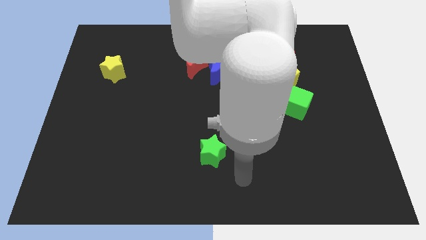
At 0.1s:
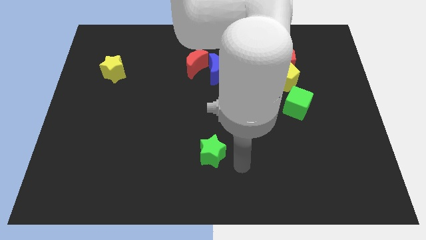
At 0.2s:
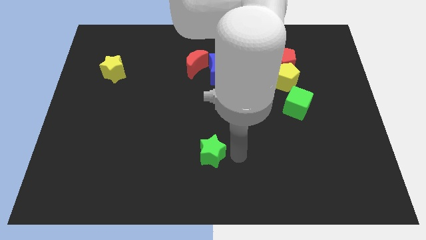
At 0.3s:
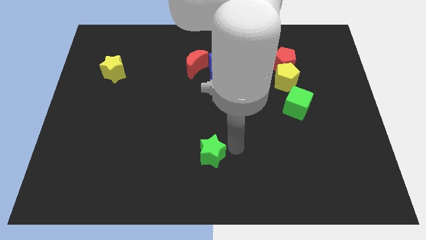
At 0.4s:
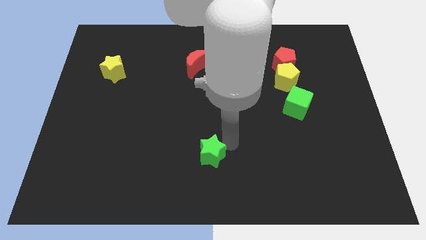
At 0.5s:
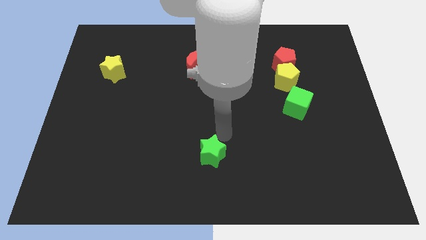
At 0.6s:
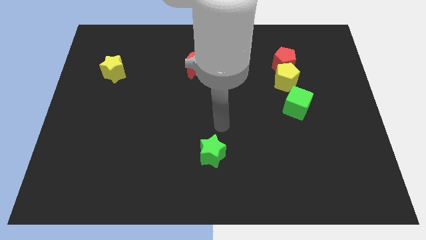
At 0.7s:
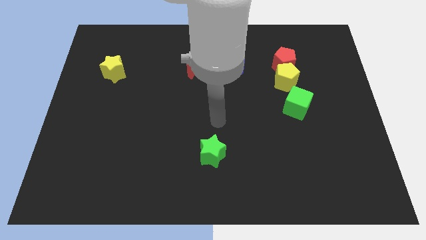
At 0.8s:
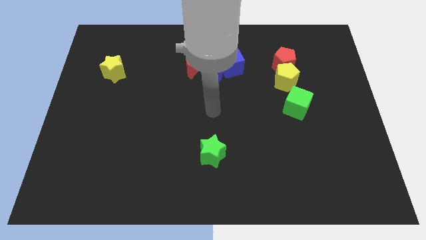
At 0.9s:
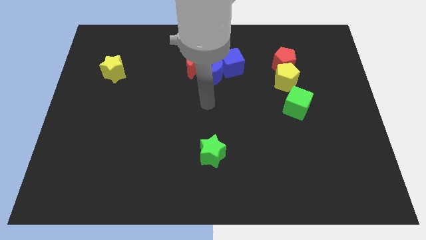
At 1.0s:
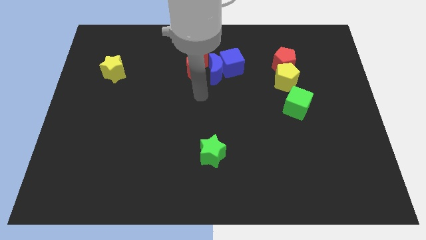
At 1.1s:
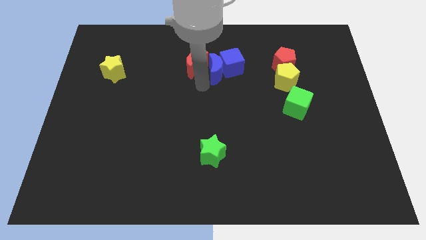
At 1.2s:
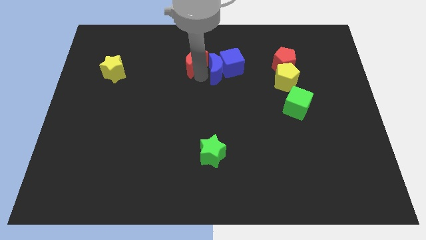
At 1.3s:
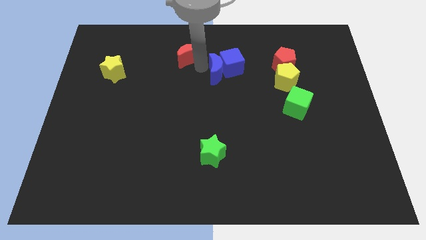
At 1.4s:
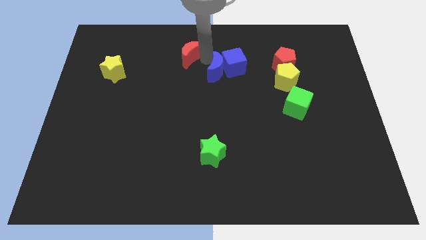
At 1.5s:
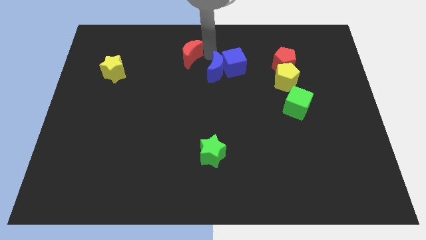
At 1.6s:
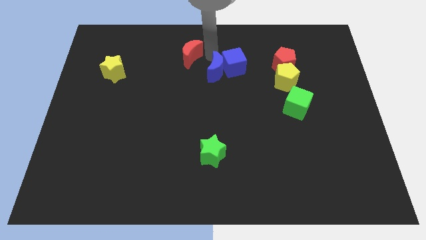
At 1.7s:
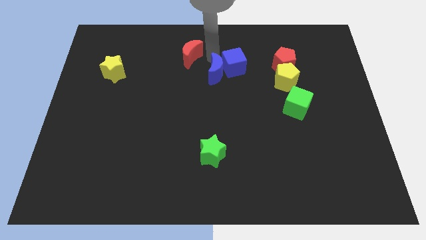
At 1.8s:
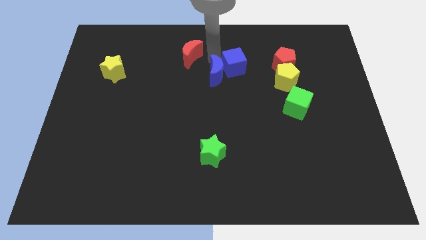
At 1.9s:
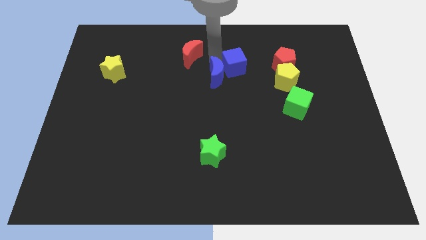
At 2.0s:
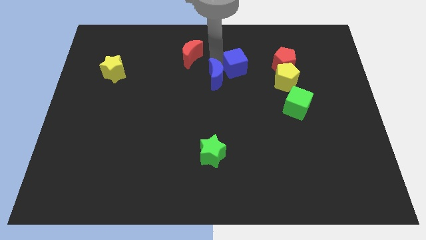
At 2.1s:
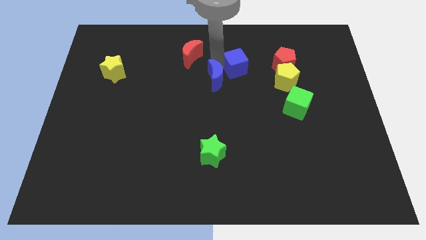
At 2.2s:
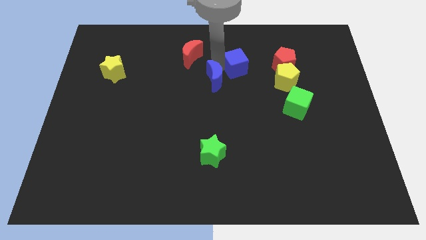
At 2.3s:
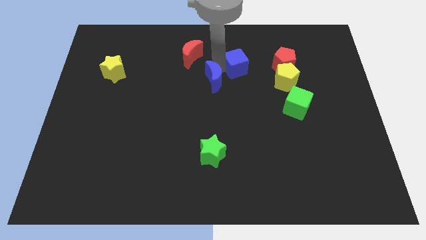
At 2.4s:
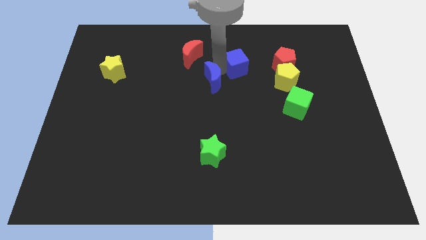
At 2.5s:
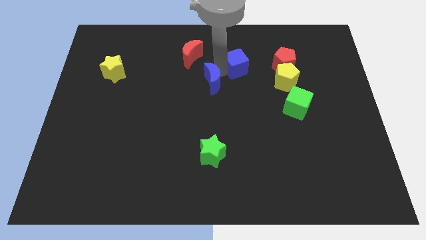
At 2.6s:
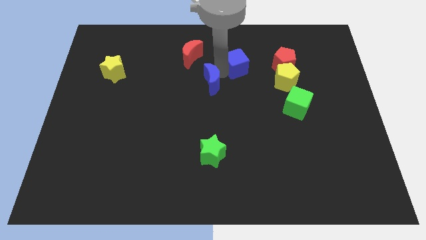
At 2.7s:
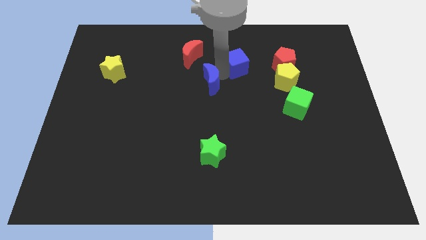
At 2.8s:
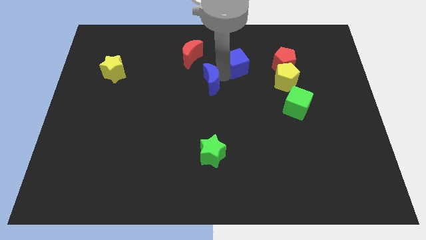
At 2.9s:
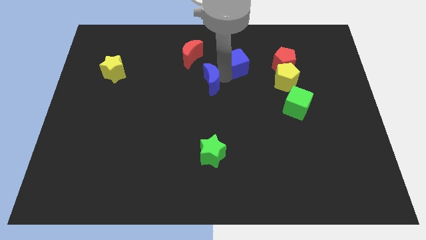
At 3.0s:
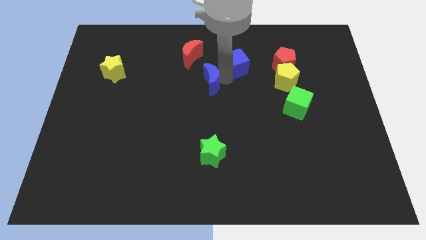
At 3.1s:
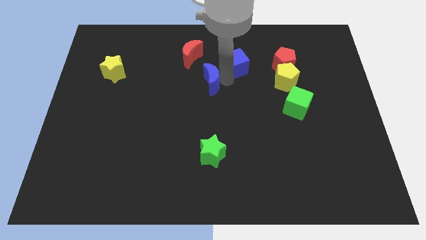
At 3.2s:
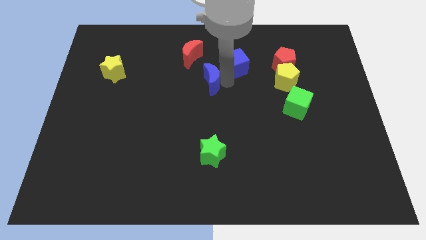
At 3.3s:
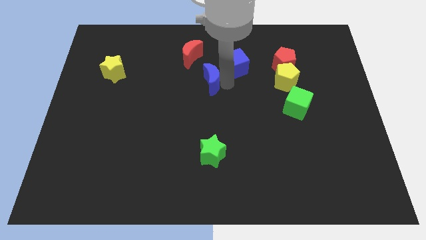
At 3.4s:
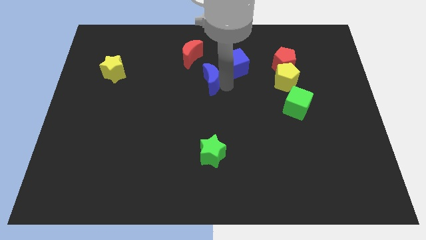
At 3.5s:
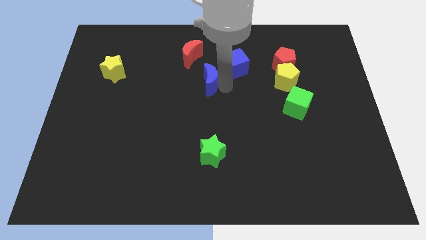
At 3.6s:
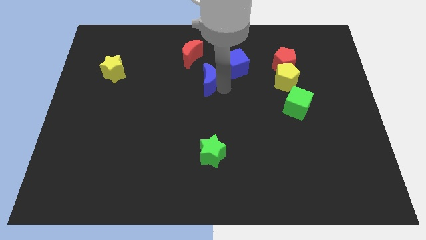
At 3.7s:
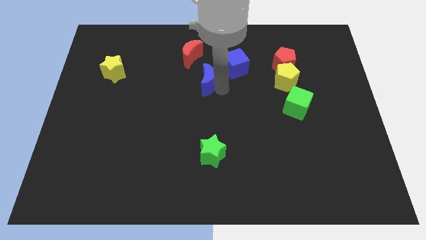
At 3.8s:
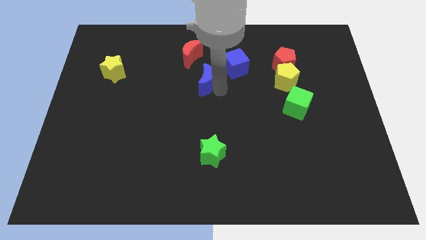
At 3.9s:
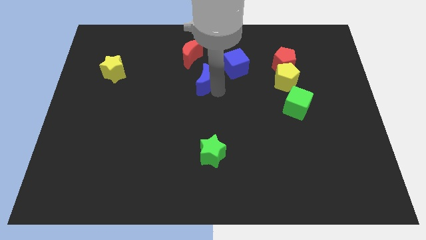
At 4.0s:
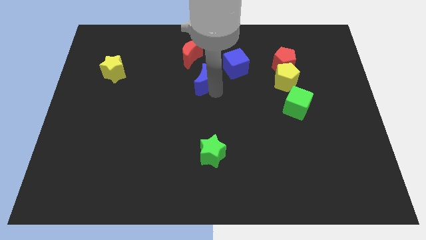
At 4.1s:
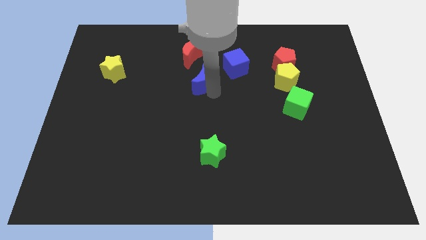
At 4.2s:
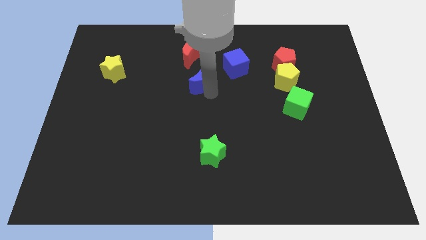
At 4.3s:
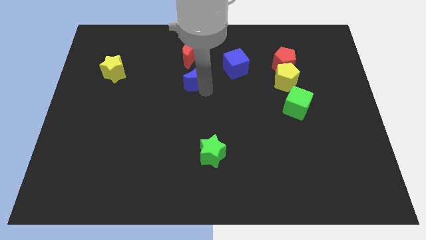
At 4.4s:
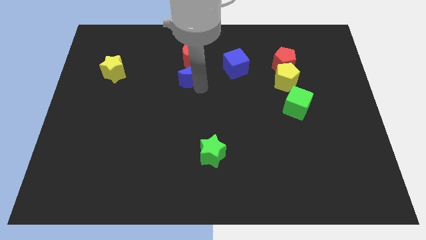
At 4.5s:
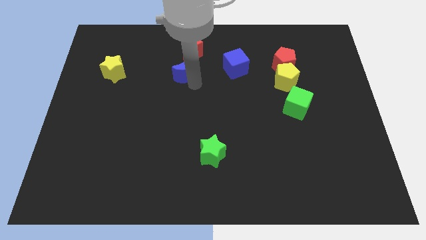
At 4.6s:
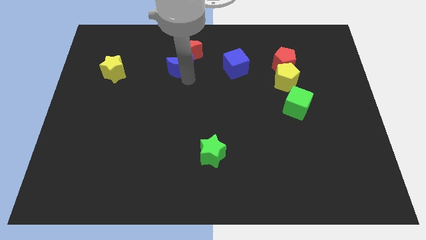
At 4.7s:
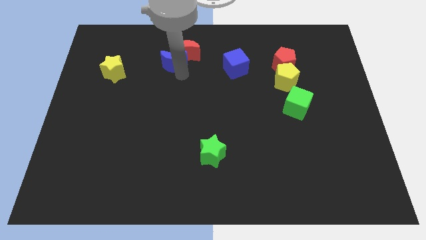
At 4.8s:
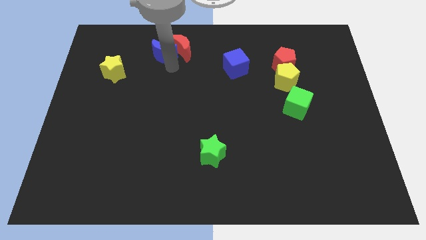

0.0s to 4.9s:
pull the blue moon apart from the blue cube and red moon

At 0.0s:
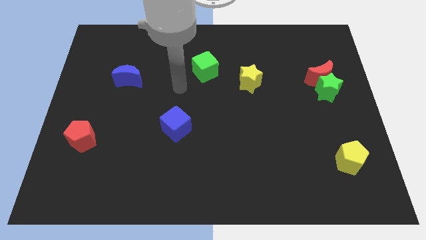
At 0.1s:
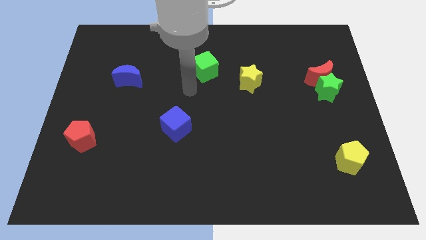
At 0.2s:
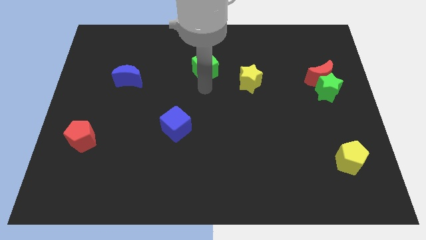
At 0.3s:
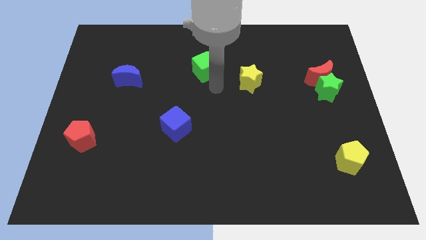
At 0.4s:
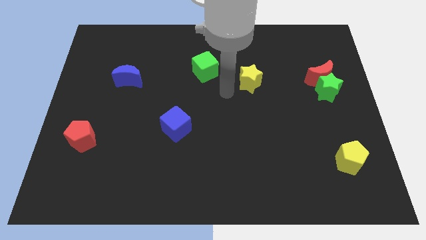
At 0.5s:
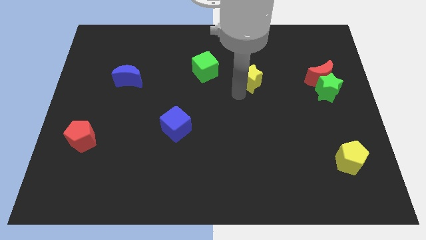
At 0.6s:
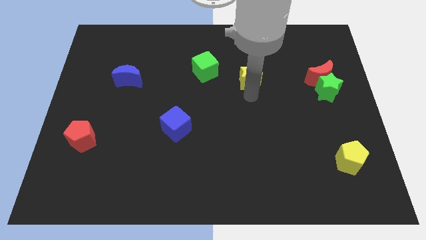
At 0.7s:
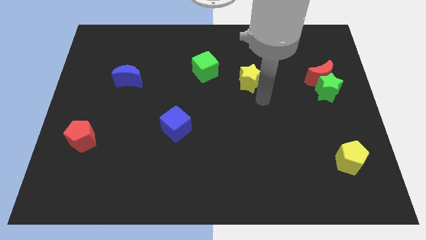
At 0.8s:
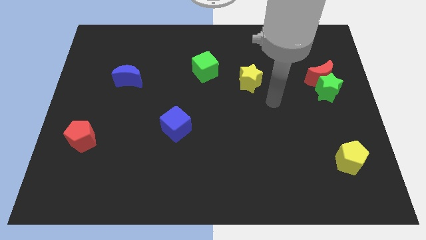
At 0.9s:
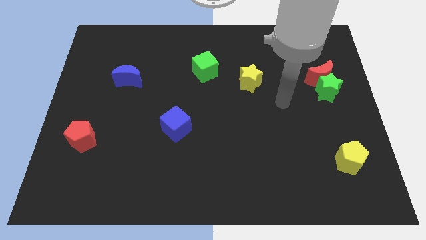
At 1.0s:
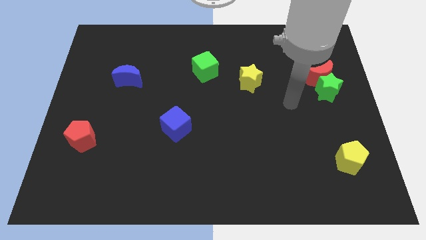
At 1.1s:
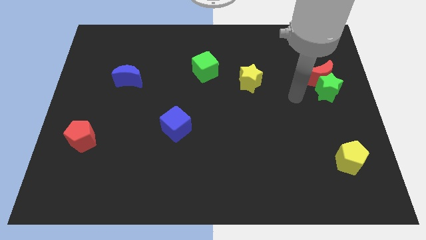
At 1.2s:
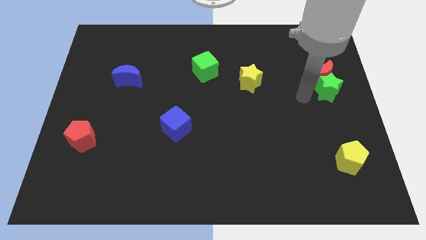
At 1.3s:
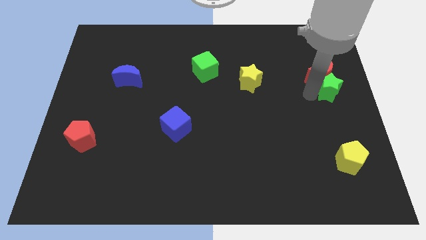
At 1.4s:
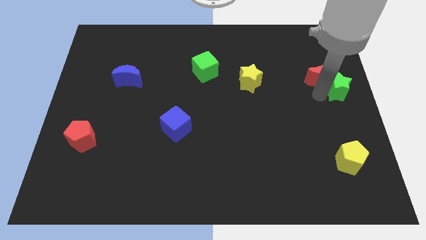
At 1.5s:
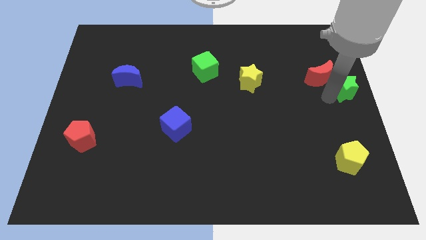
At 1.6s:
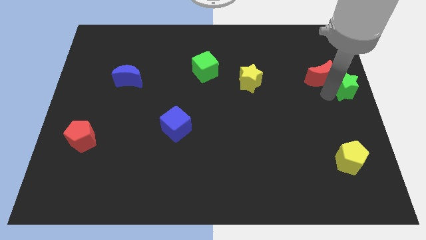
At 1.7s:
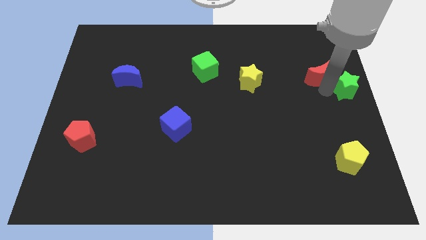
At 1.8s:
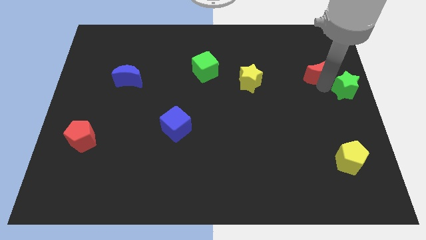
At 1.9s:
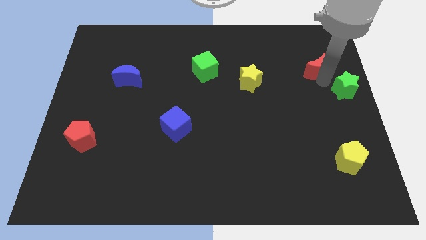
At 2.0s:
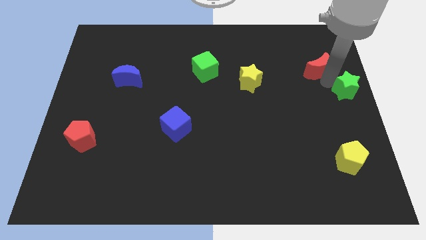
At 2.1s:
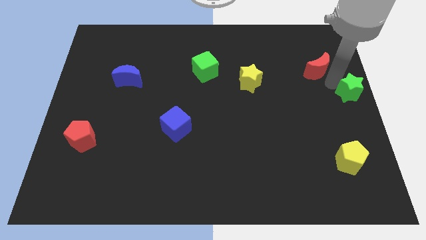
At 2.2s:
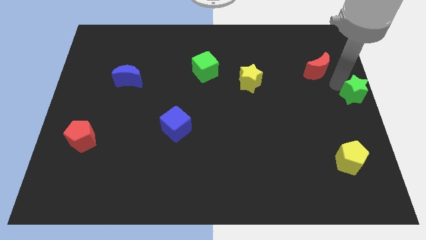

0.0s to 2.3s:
move the red moon away from the green star

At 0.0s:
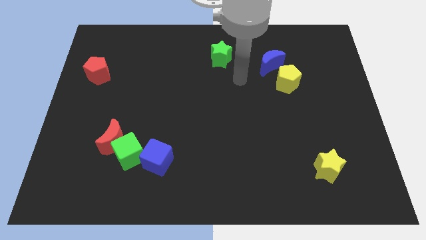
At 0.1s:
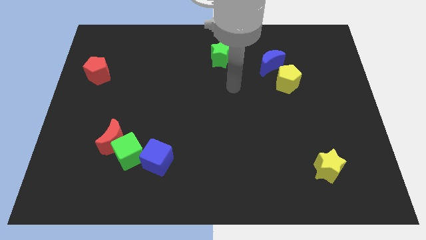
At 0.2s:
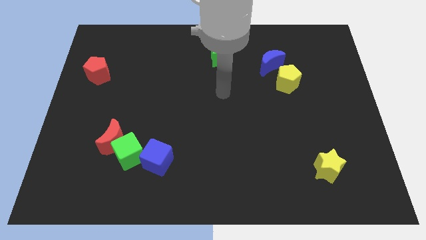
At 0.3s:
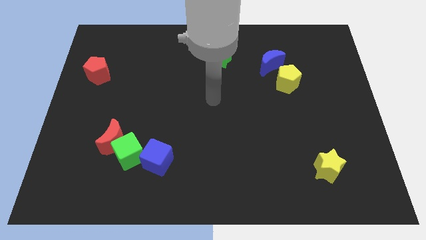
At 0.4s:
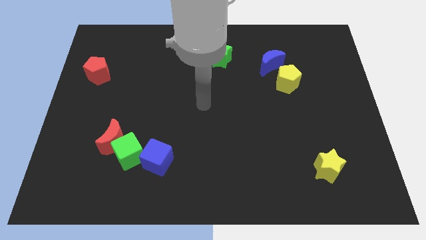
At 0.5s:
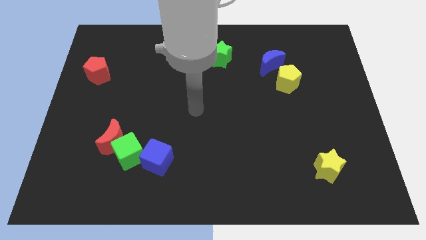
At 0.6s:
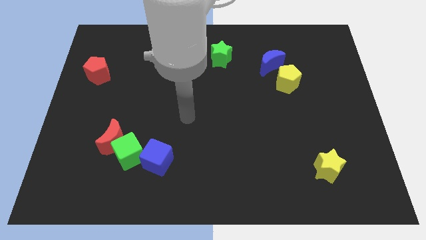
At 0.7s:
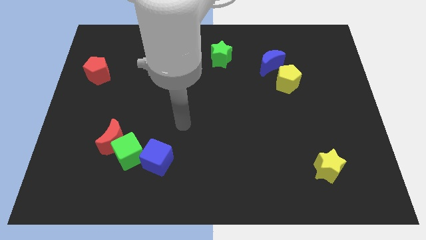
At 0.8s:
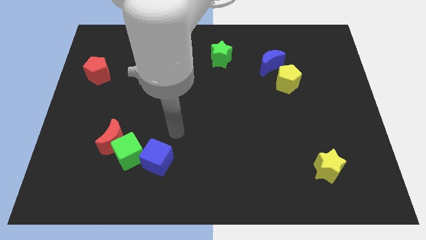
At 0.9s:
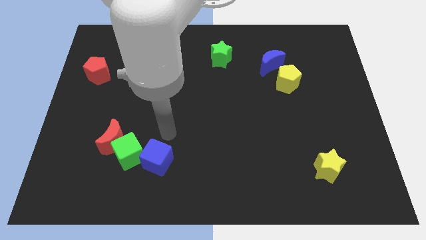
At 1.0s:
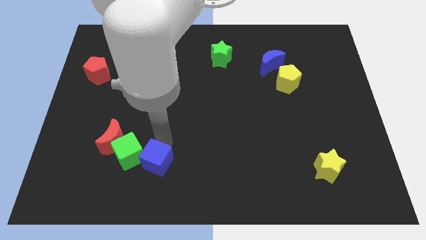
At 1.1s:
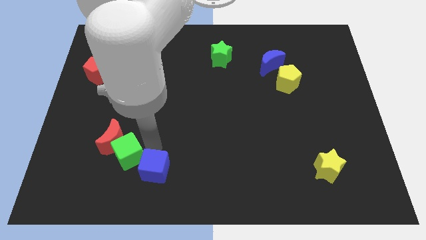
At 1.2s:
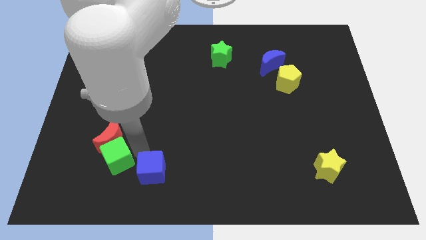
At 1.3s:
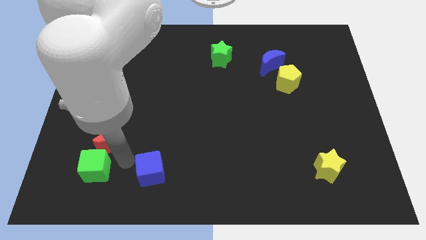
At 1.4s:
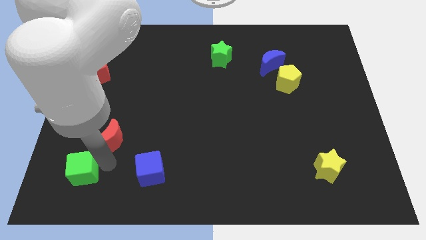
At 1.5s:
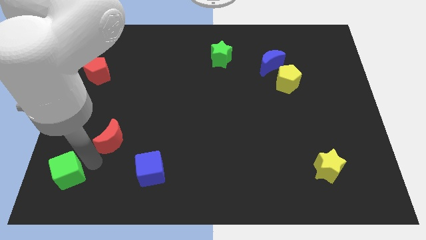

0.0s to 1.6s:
separate the red moon from the green cube

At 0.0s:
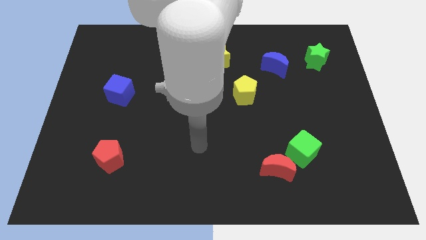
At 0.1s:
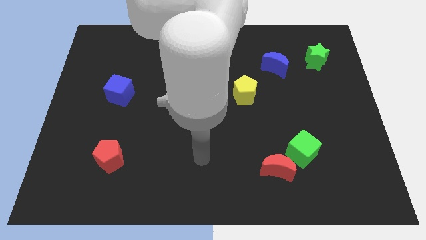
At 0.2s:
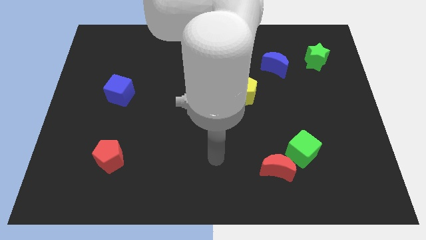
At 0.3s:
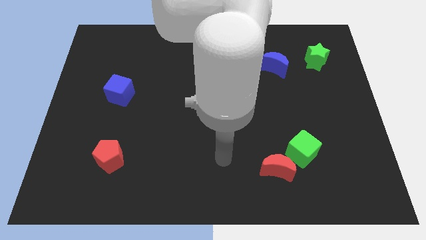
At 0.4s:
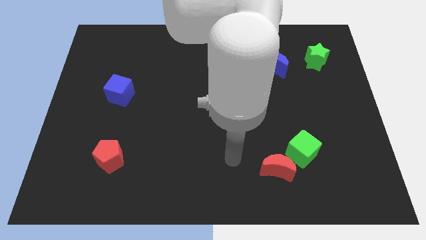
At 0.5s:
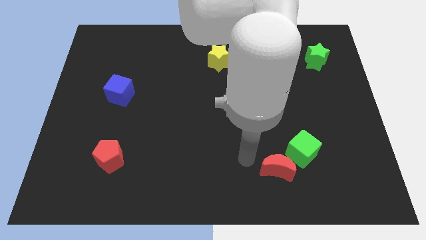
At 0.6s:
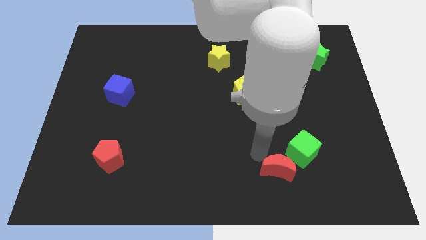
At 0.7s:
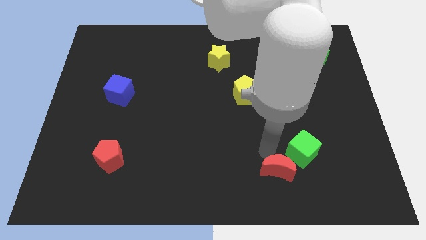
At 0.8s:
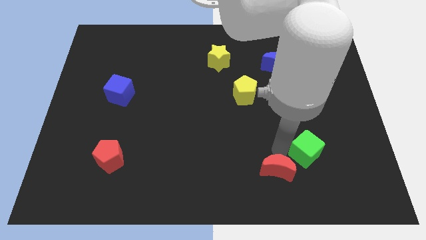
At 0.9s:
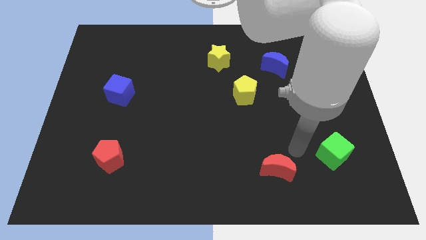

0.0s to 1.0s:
pull the red moon apart from the green cube
